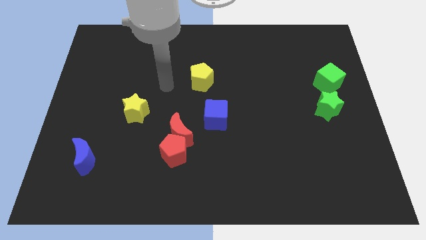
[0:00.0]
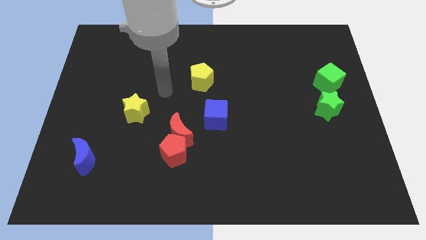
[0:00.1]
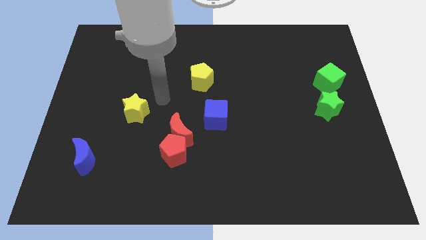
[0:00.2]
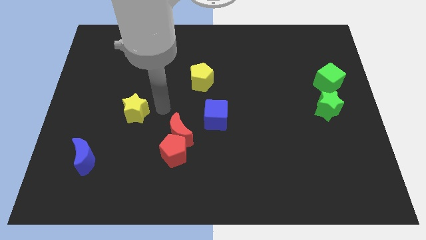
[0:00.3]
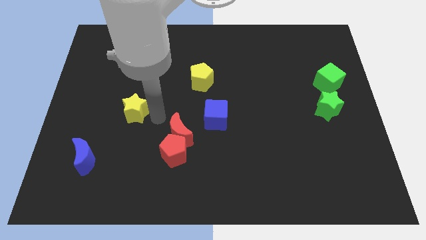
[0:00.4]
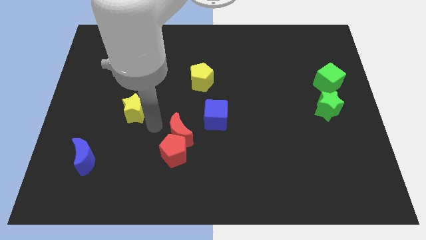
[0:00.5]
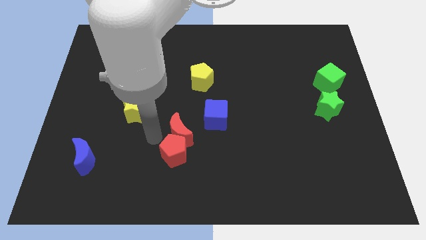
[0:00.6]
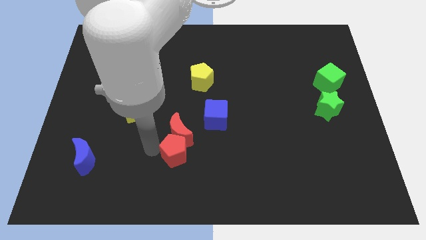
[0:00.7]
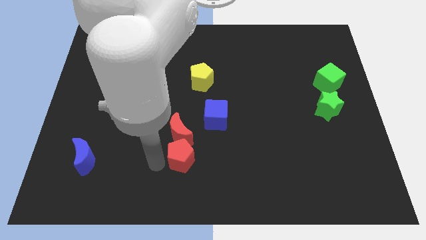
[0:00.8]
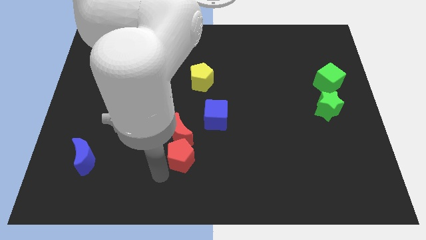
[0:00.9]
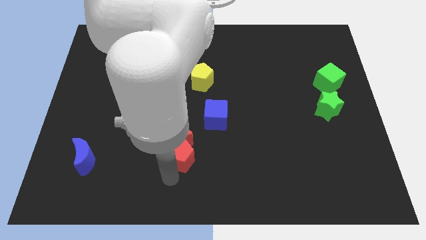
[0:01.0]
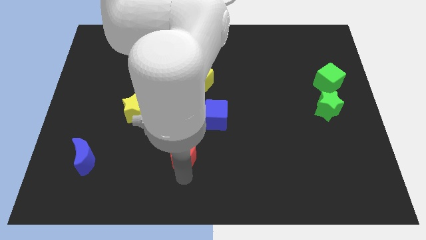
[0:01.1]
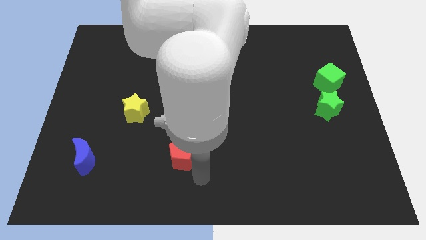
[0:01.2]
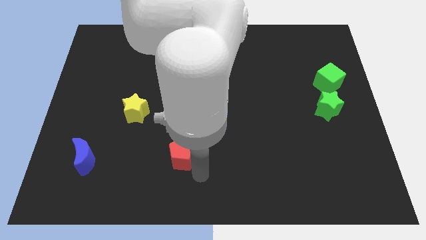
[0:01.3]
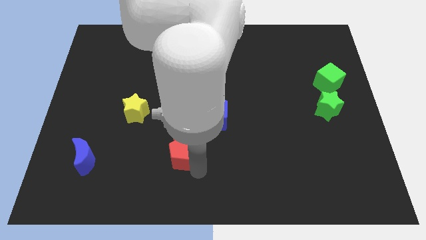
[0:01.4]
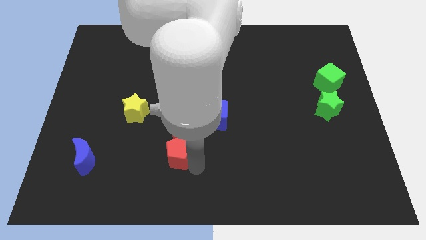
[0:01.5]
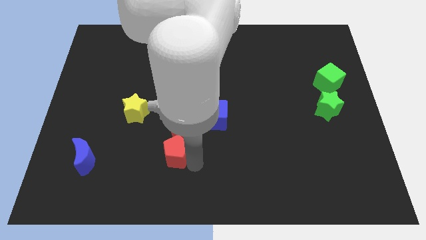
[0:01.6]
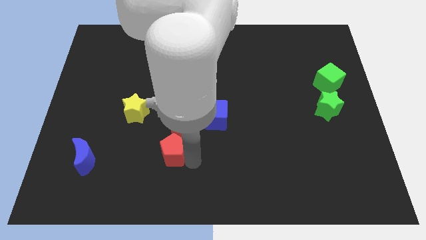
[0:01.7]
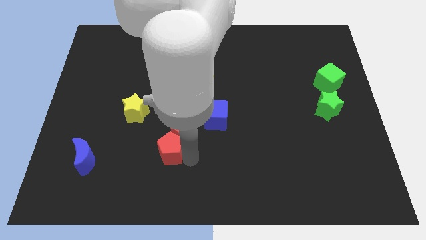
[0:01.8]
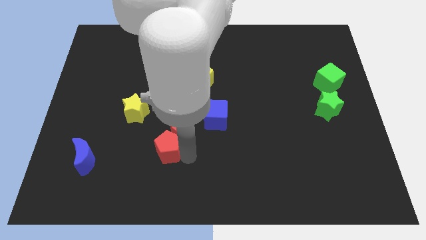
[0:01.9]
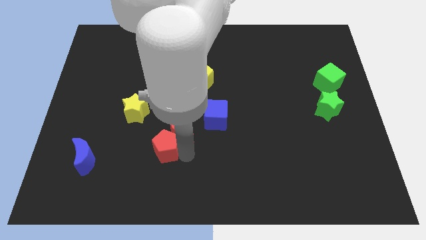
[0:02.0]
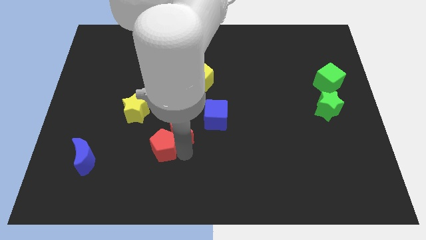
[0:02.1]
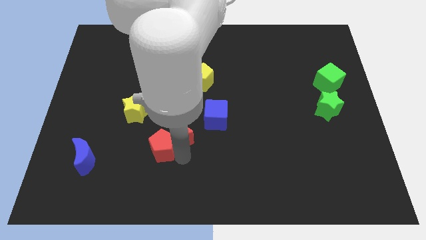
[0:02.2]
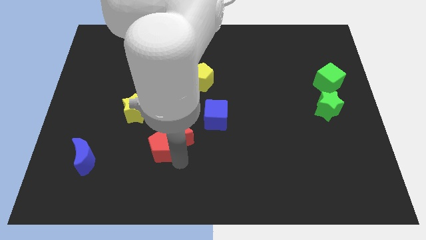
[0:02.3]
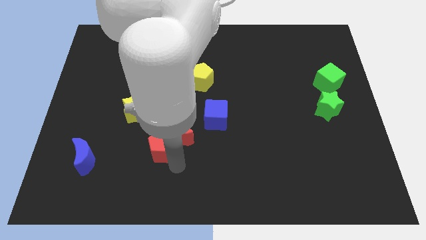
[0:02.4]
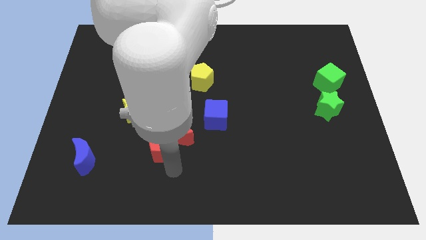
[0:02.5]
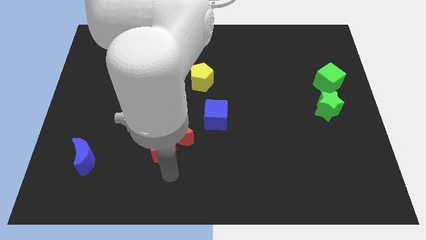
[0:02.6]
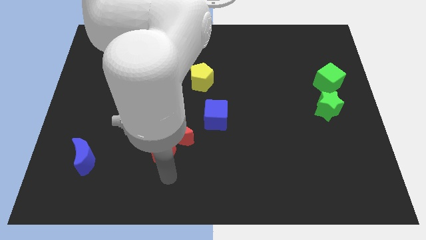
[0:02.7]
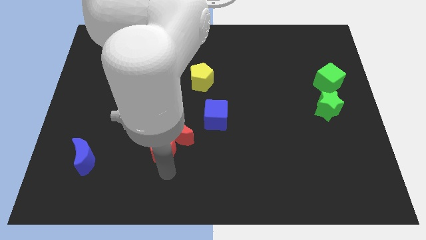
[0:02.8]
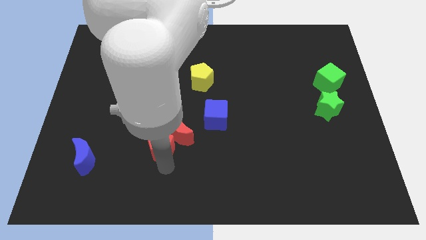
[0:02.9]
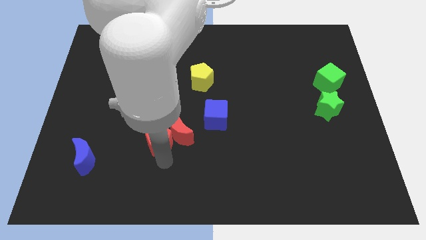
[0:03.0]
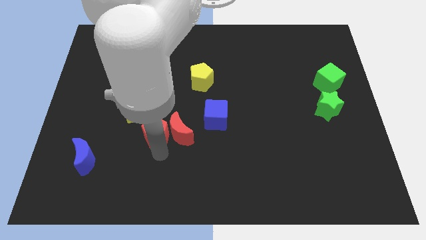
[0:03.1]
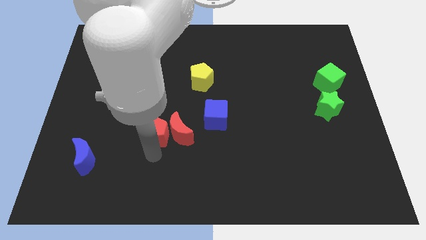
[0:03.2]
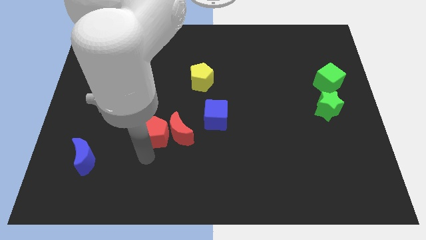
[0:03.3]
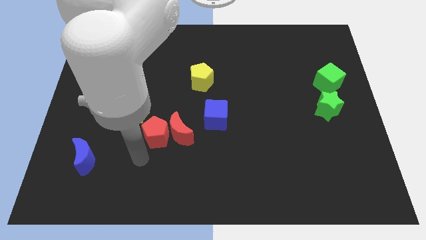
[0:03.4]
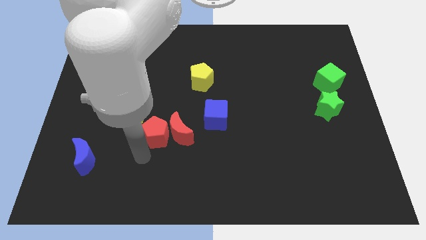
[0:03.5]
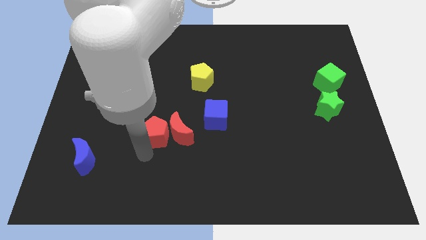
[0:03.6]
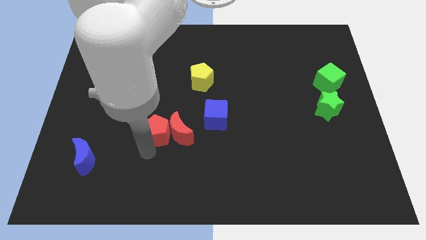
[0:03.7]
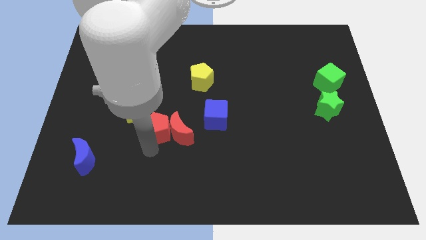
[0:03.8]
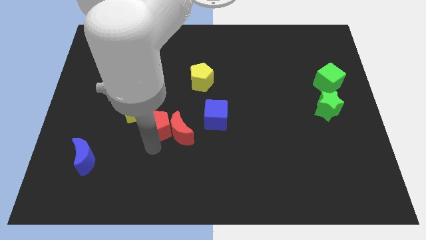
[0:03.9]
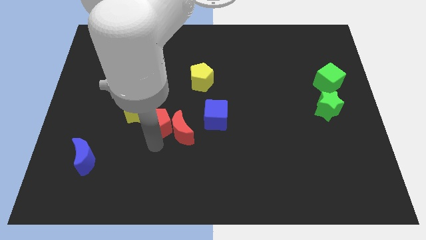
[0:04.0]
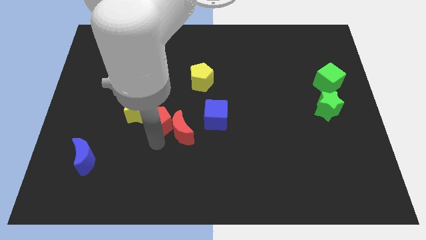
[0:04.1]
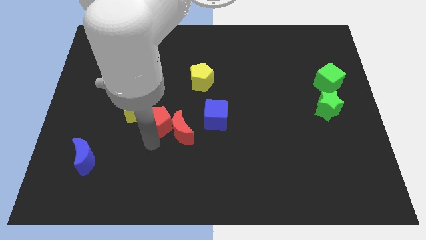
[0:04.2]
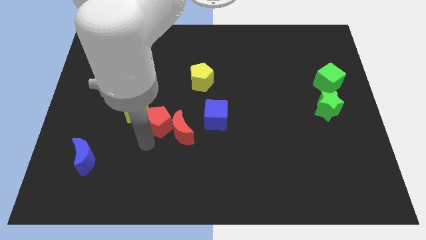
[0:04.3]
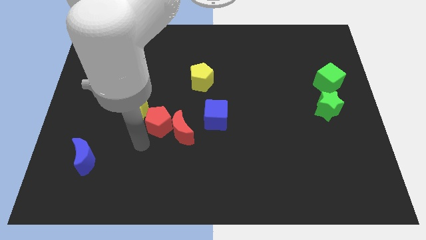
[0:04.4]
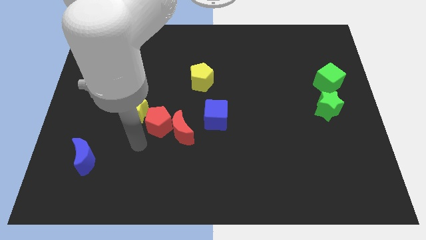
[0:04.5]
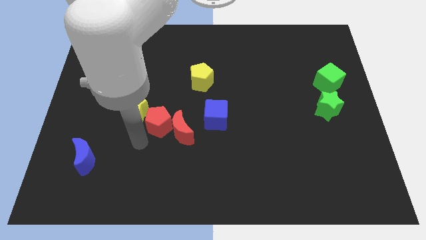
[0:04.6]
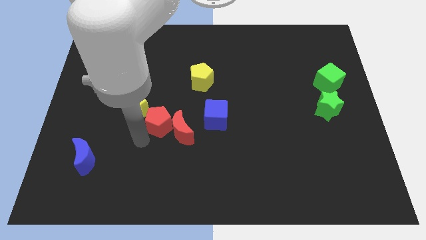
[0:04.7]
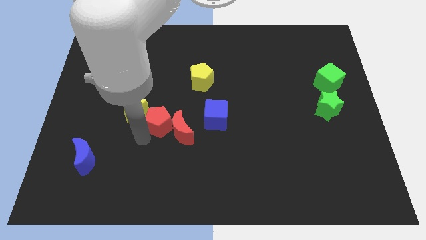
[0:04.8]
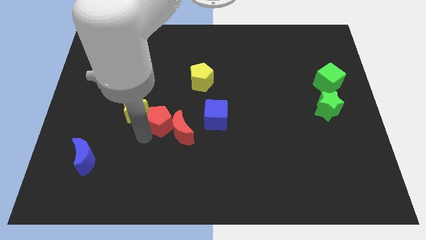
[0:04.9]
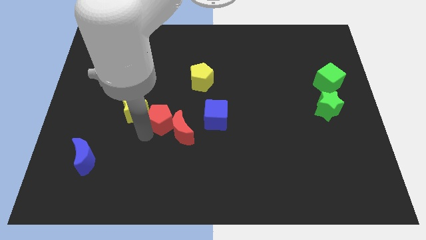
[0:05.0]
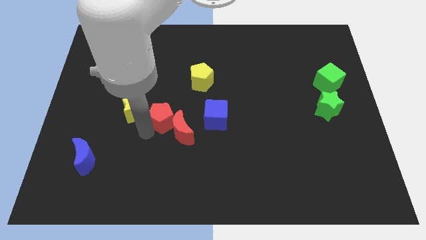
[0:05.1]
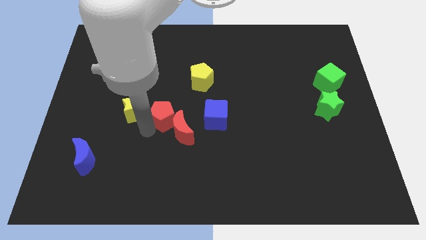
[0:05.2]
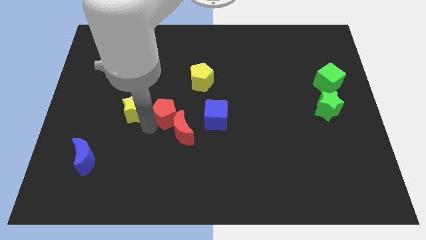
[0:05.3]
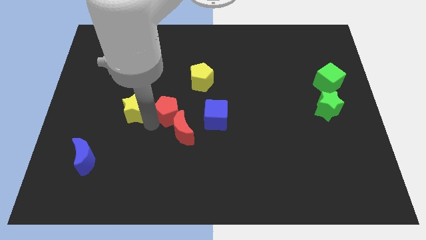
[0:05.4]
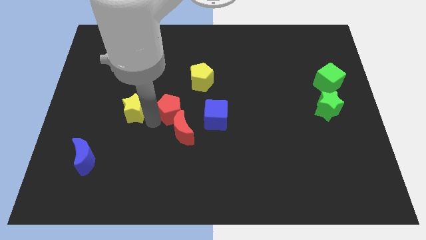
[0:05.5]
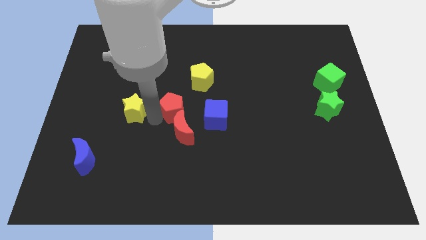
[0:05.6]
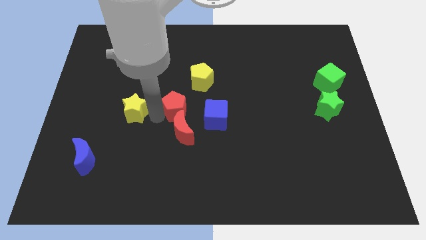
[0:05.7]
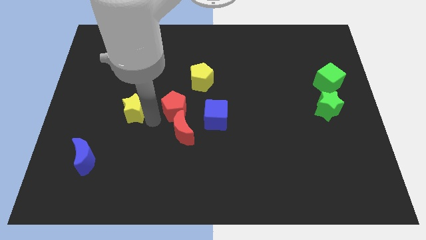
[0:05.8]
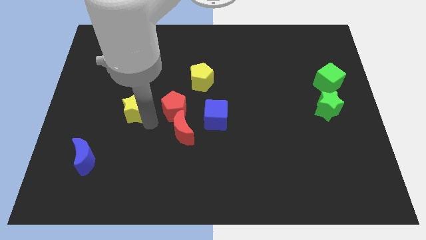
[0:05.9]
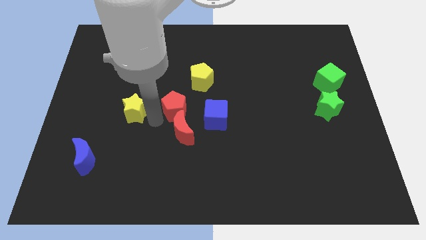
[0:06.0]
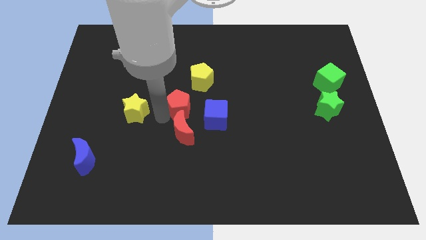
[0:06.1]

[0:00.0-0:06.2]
put the red pentagon to the top left of the blue cube
